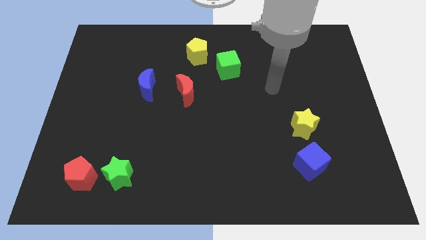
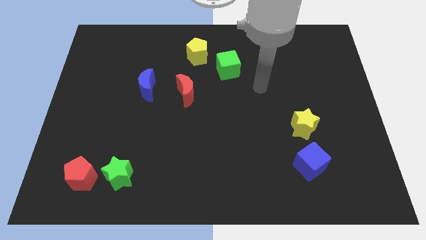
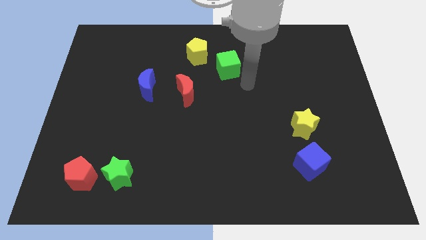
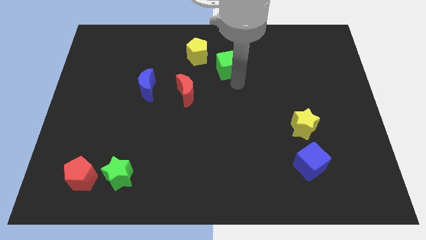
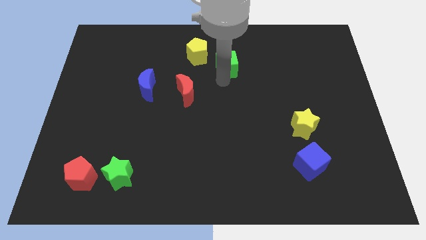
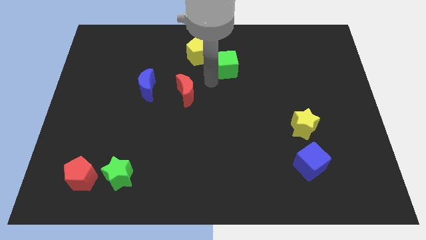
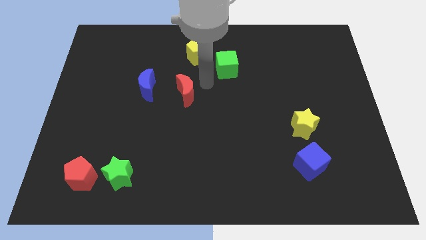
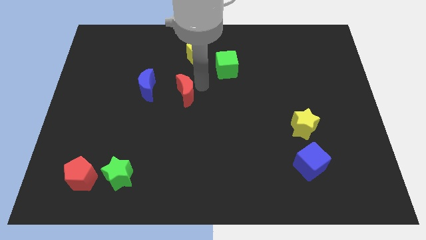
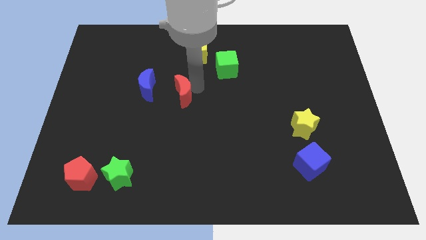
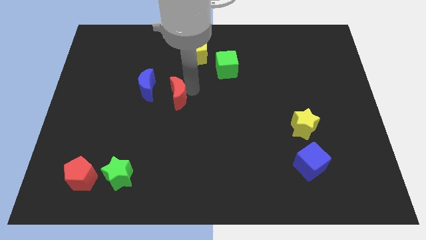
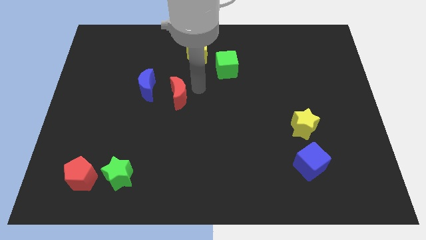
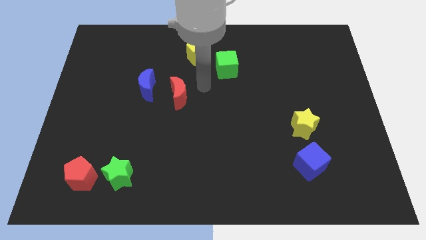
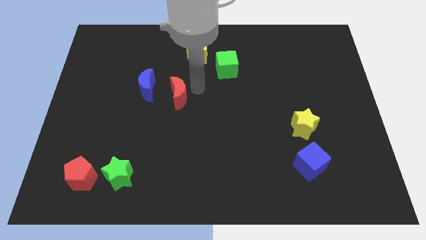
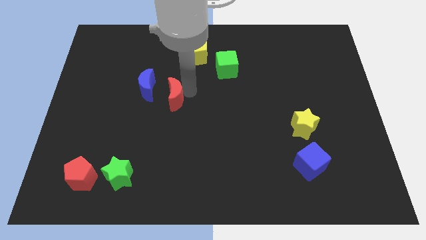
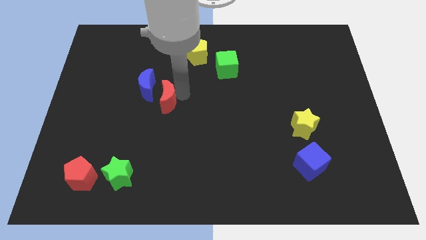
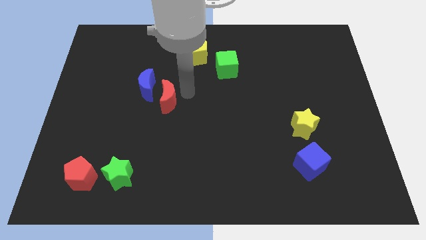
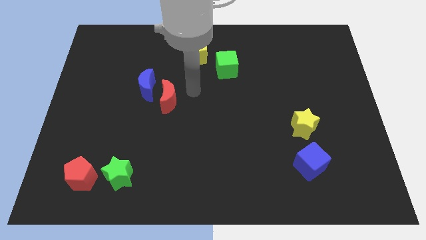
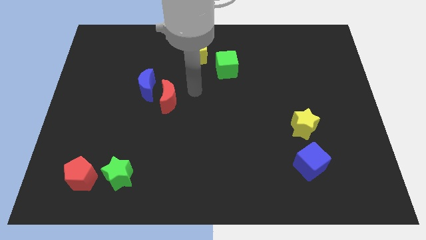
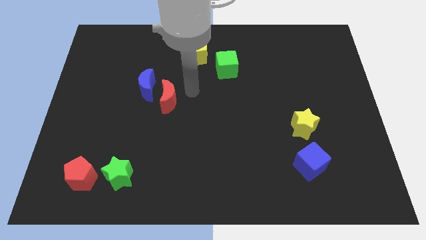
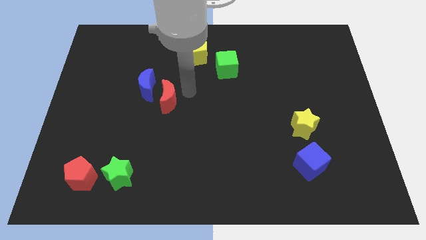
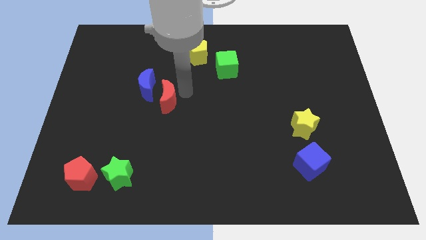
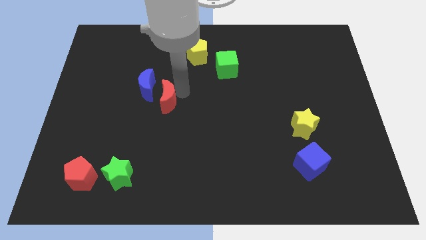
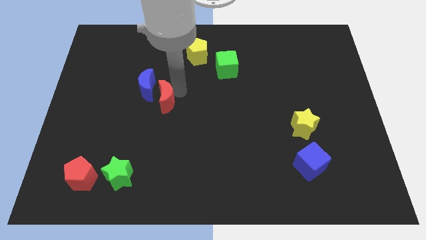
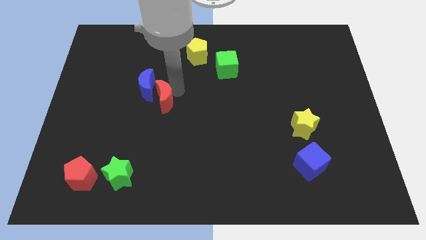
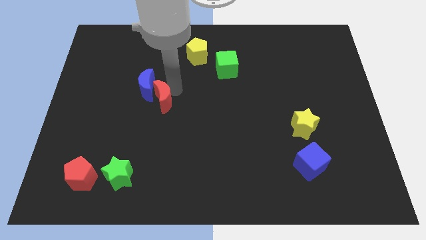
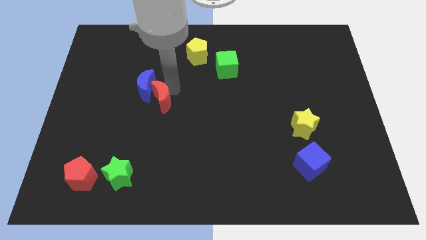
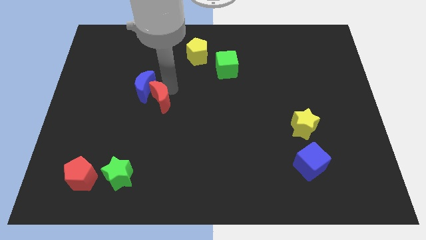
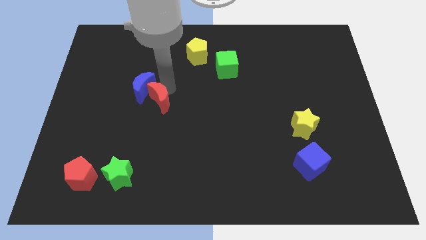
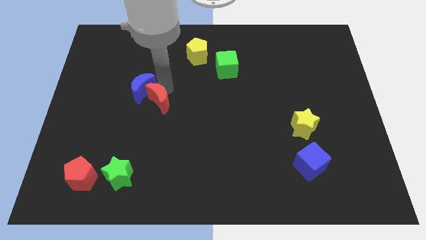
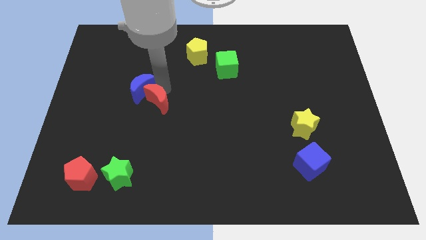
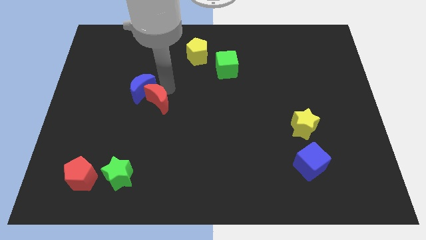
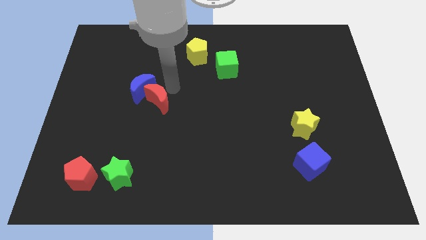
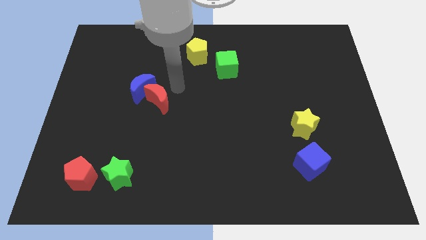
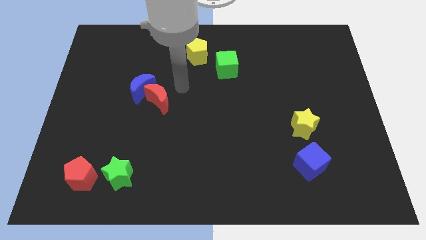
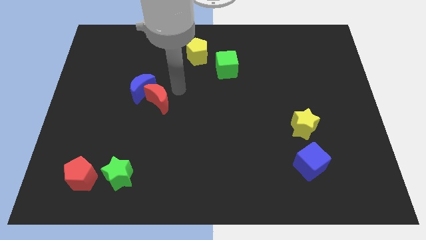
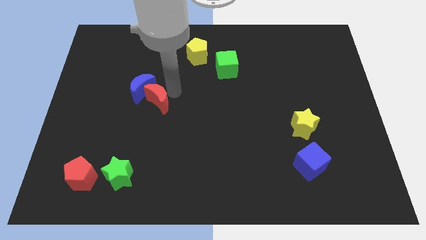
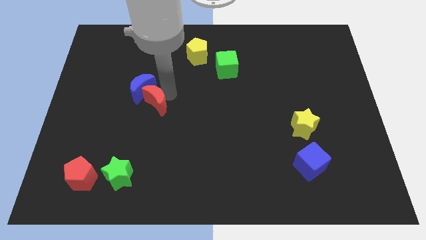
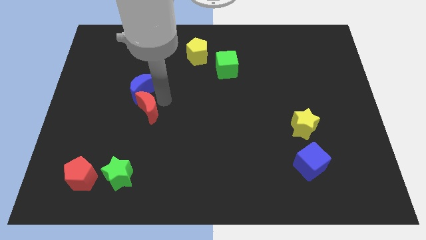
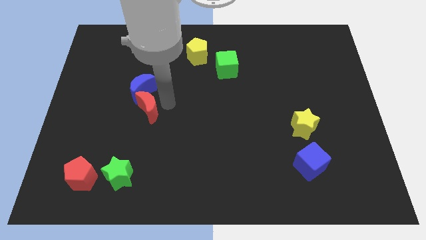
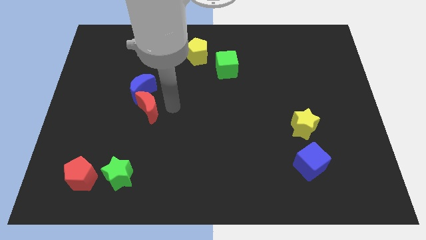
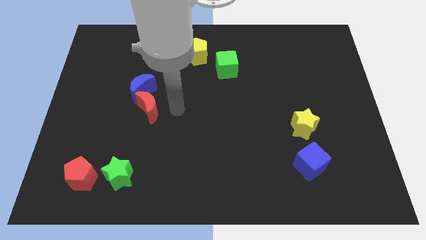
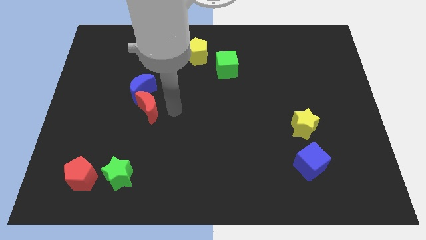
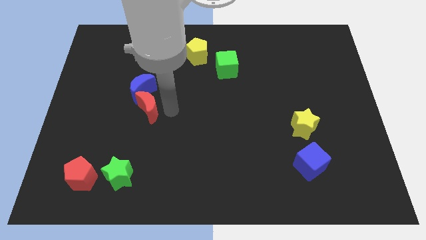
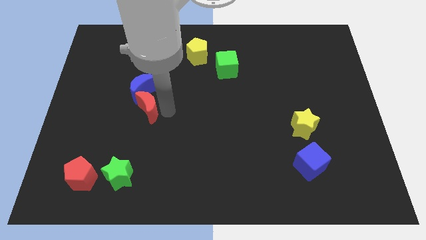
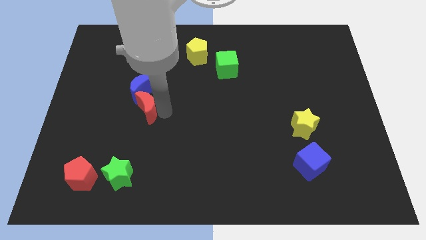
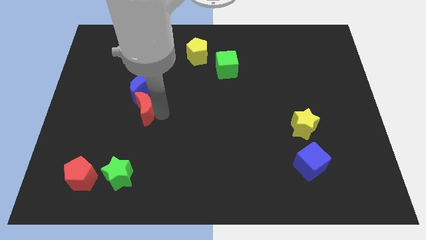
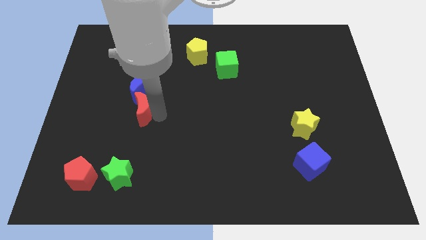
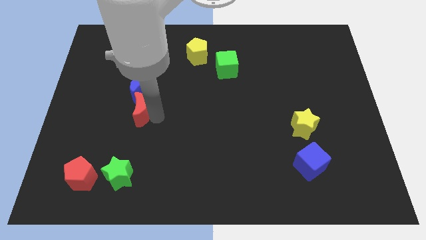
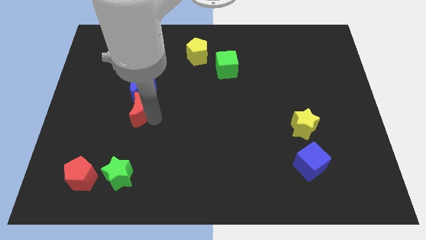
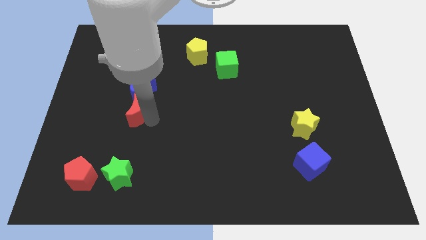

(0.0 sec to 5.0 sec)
slide the red moon diagonally down and to the left of the blue moon
